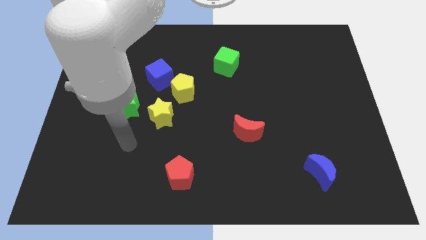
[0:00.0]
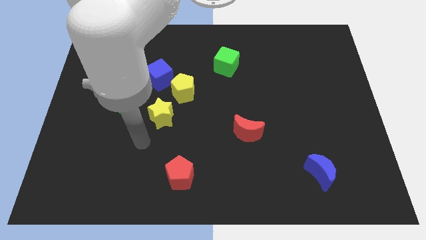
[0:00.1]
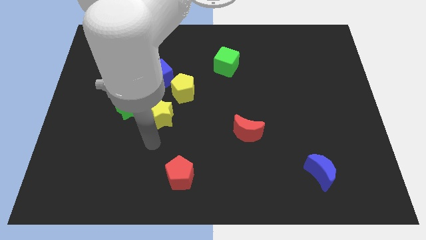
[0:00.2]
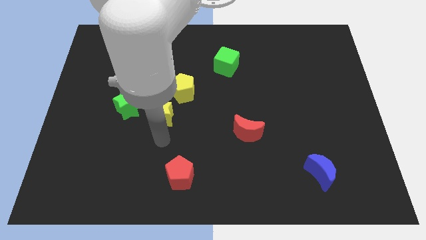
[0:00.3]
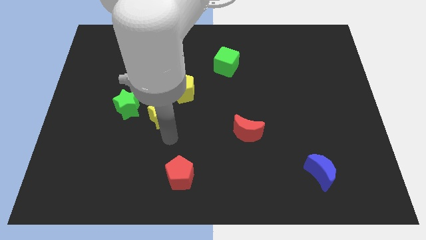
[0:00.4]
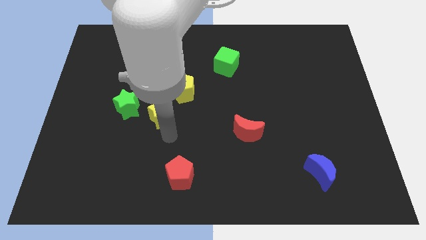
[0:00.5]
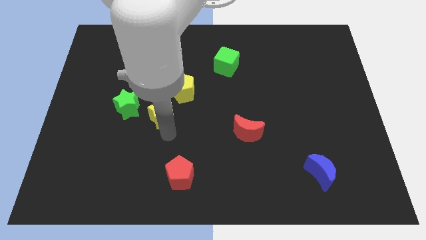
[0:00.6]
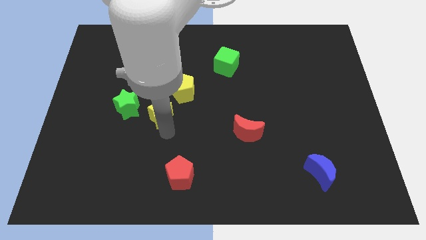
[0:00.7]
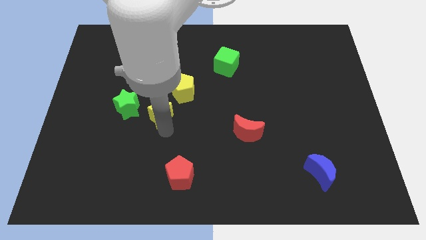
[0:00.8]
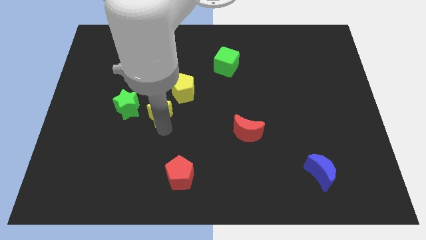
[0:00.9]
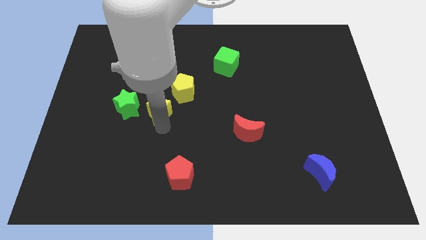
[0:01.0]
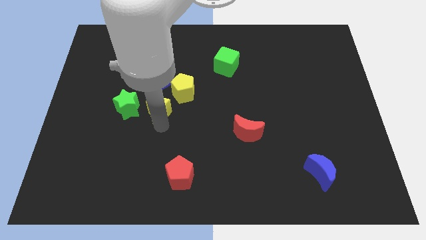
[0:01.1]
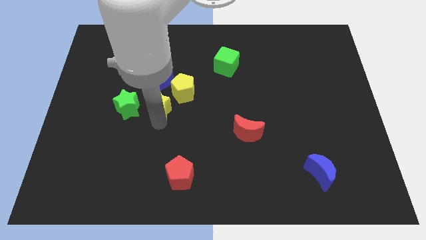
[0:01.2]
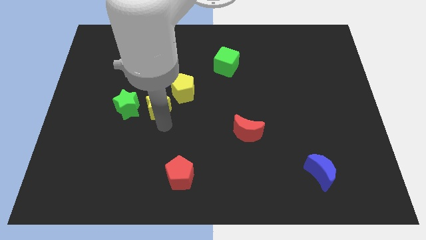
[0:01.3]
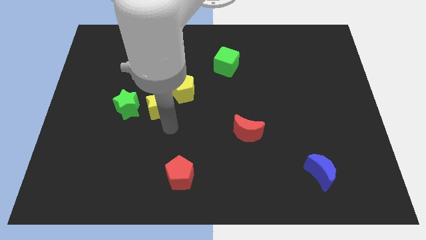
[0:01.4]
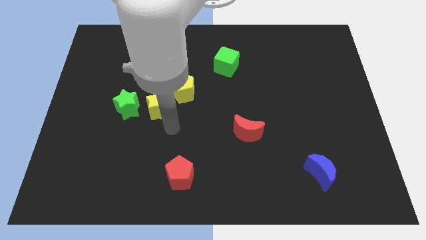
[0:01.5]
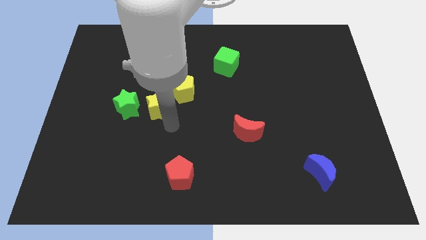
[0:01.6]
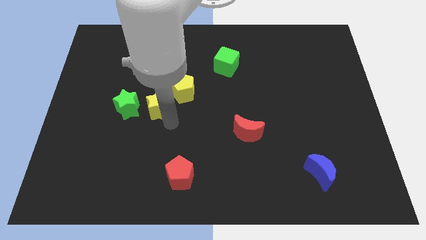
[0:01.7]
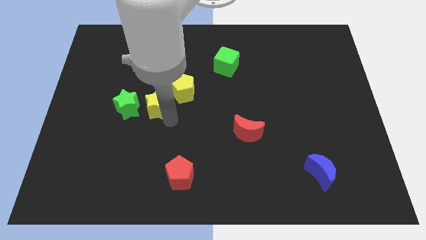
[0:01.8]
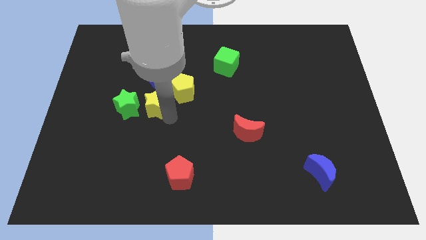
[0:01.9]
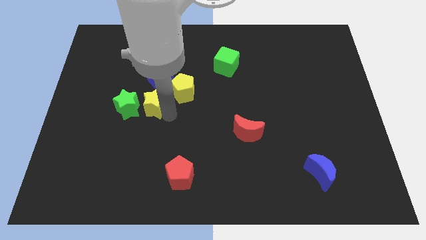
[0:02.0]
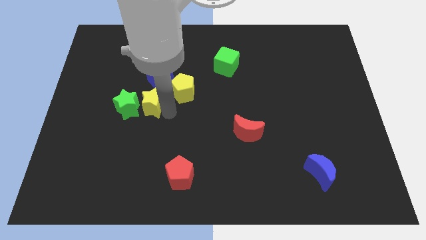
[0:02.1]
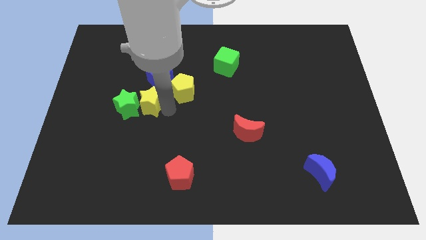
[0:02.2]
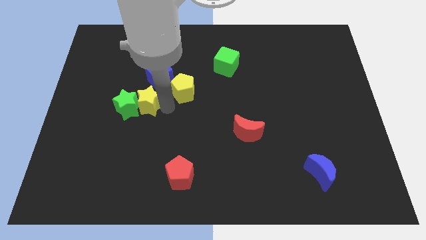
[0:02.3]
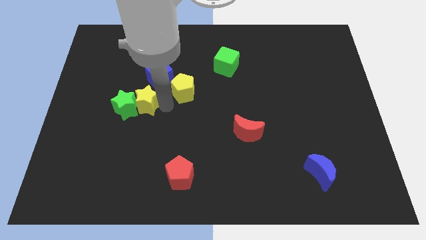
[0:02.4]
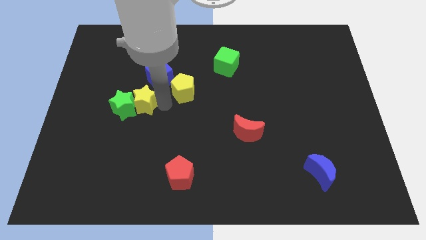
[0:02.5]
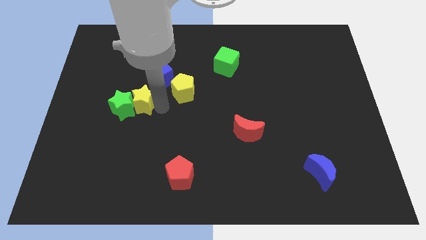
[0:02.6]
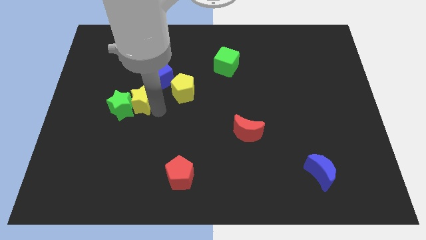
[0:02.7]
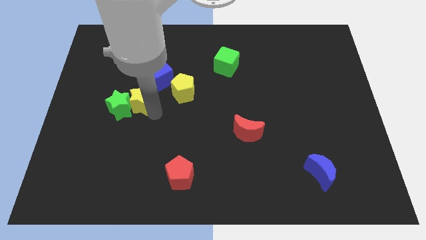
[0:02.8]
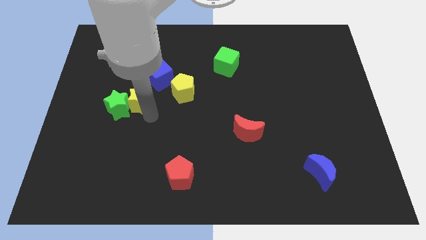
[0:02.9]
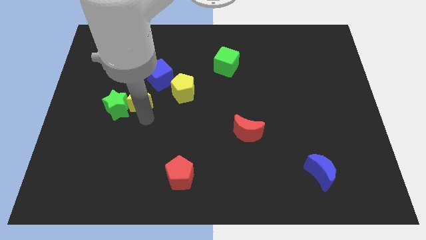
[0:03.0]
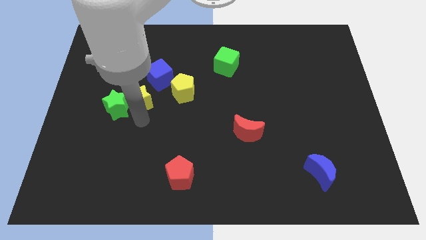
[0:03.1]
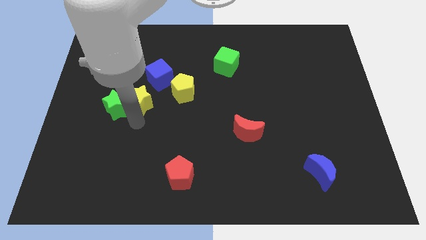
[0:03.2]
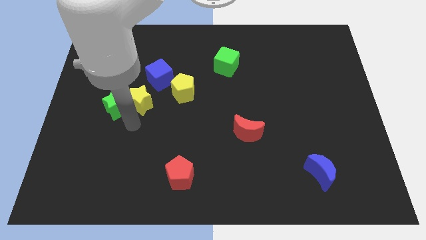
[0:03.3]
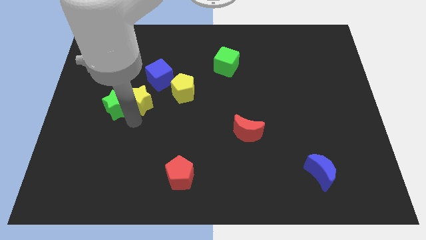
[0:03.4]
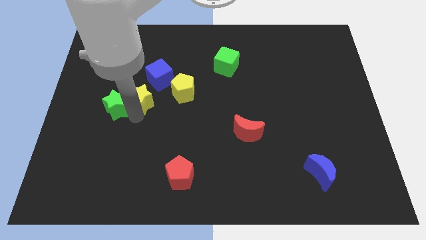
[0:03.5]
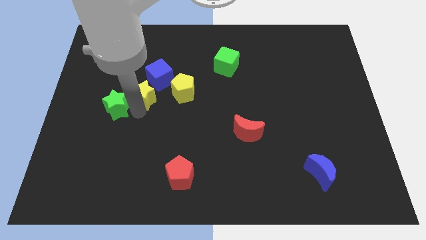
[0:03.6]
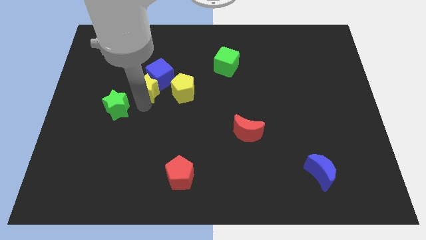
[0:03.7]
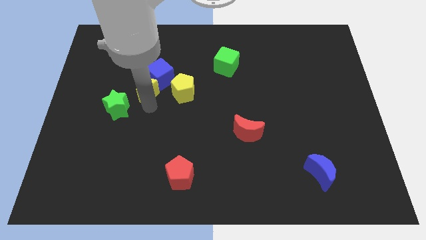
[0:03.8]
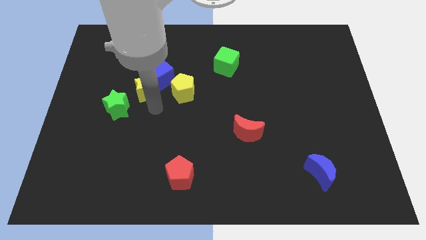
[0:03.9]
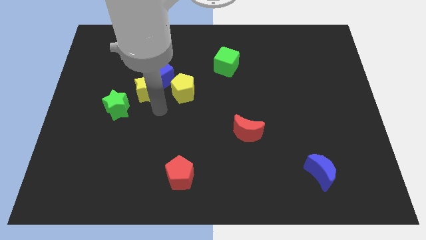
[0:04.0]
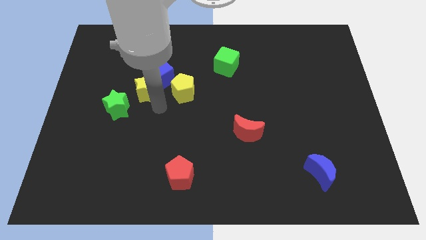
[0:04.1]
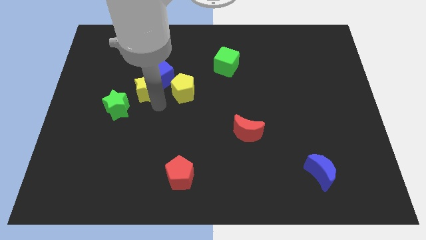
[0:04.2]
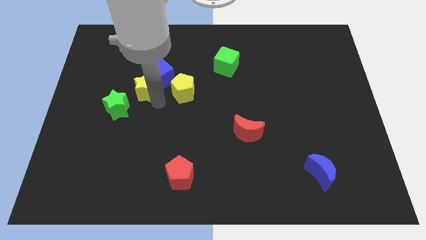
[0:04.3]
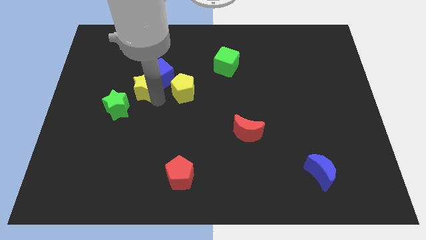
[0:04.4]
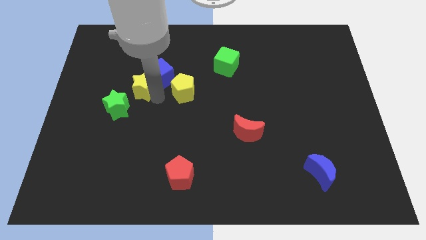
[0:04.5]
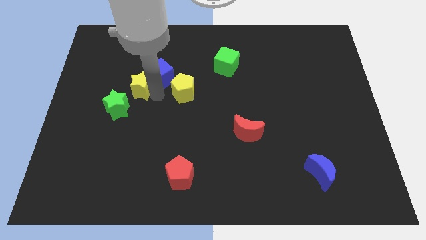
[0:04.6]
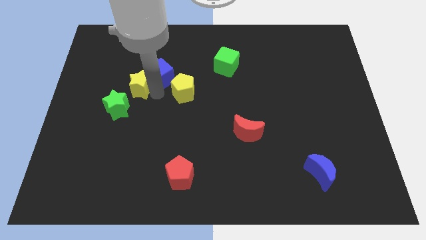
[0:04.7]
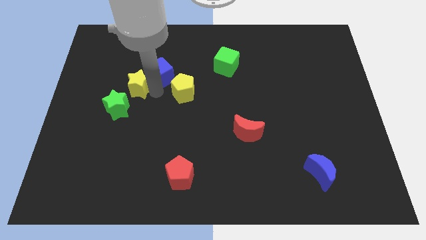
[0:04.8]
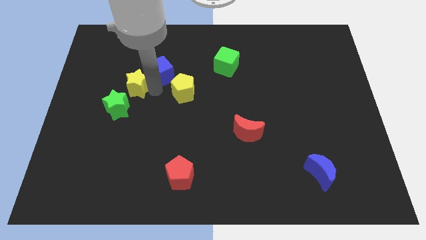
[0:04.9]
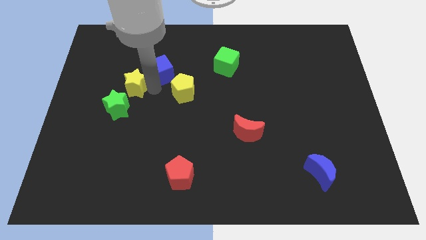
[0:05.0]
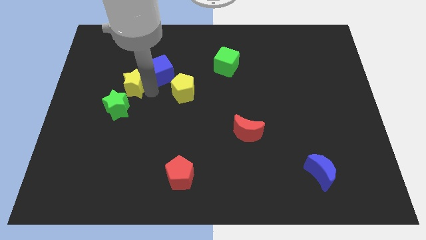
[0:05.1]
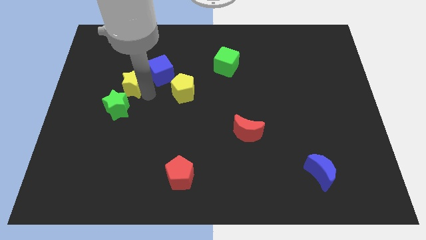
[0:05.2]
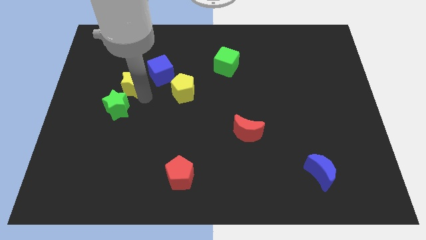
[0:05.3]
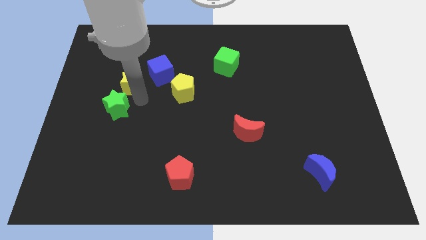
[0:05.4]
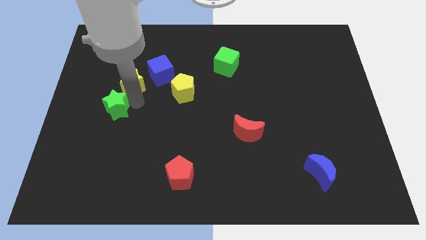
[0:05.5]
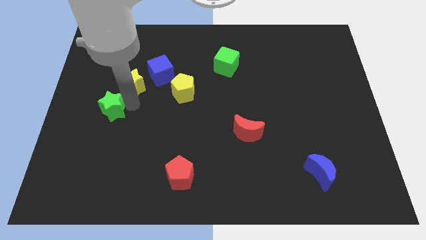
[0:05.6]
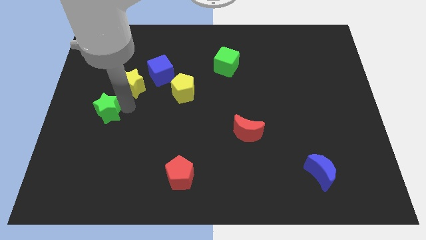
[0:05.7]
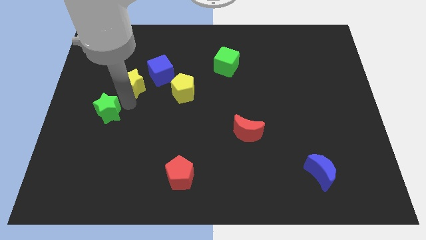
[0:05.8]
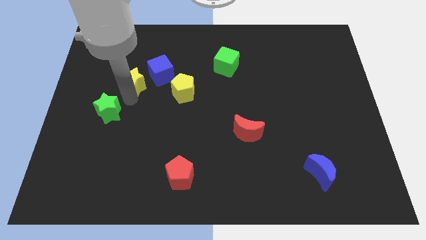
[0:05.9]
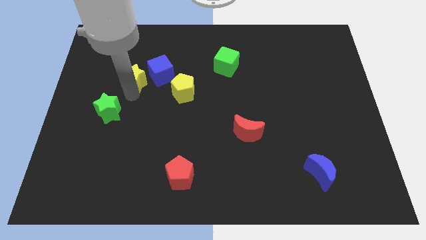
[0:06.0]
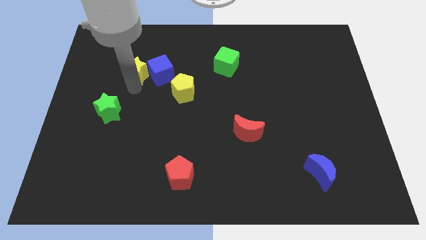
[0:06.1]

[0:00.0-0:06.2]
push the yellow star to the top left of the blue cube

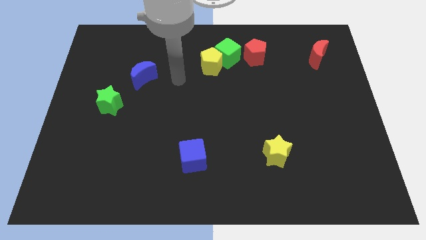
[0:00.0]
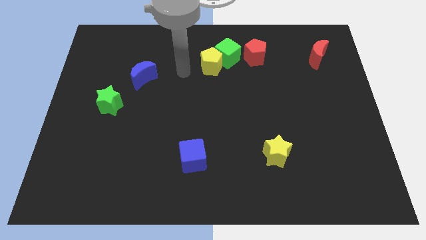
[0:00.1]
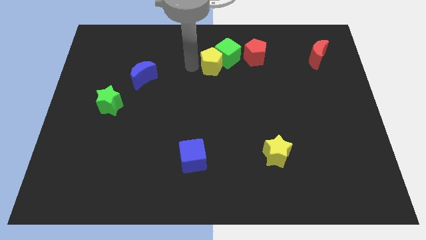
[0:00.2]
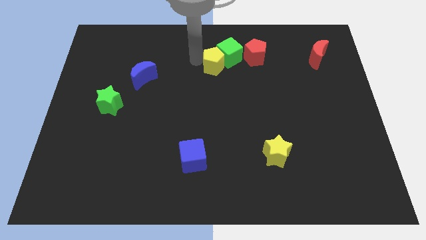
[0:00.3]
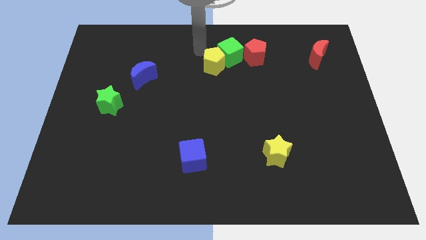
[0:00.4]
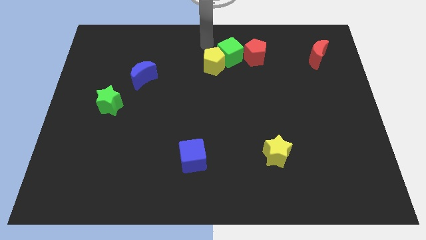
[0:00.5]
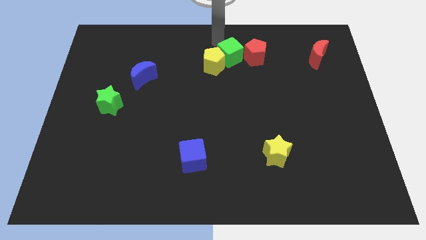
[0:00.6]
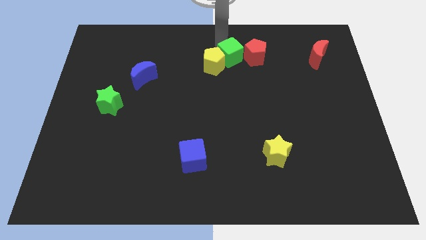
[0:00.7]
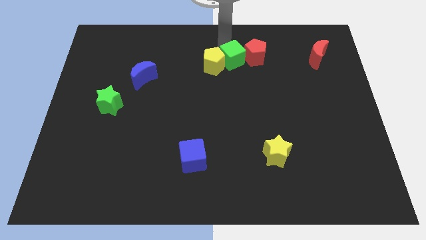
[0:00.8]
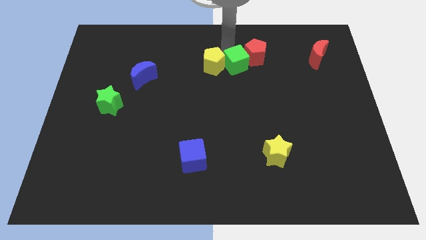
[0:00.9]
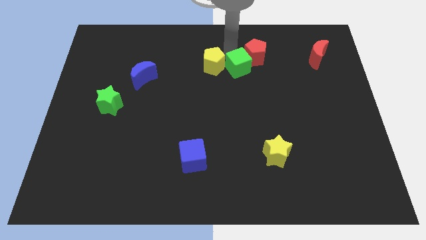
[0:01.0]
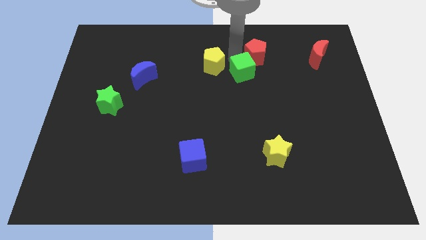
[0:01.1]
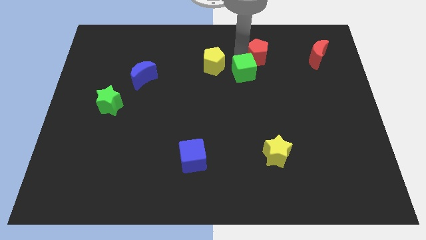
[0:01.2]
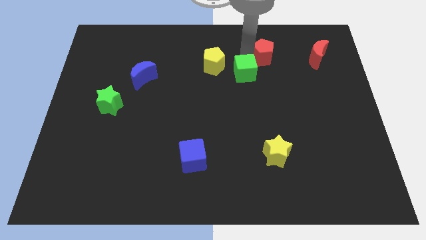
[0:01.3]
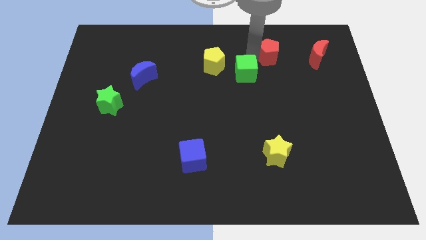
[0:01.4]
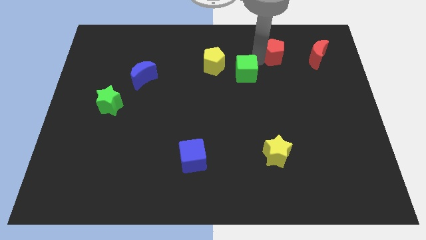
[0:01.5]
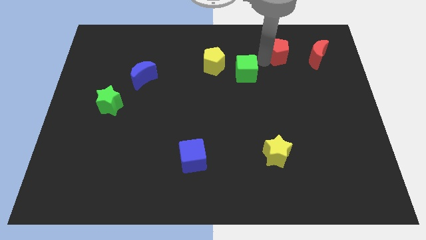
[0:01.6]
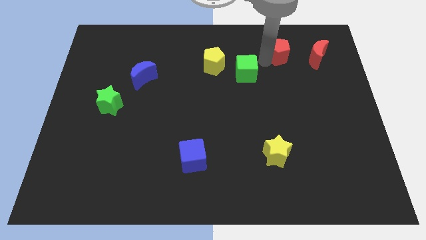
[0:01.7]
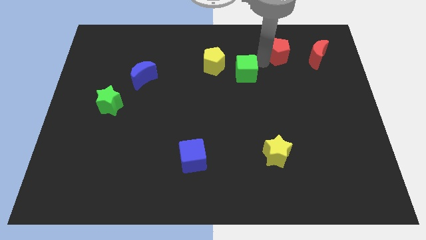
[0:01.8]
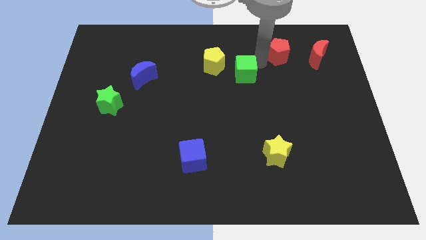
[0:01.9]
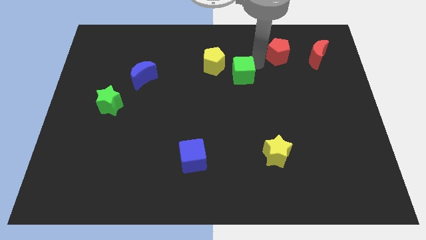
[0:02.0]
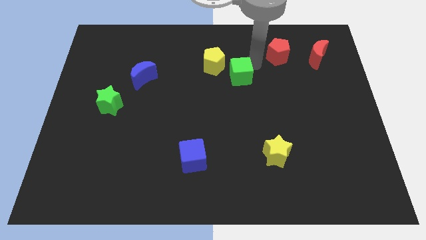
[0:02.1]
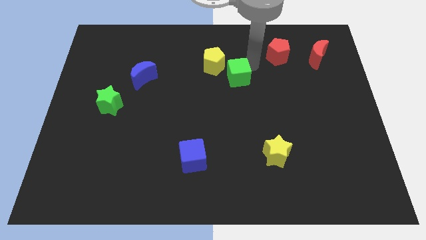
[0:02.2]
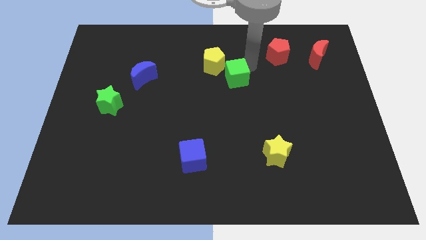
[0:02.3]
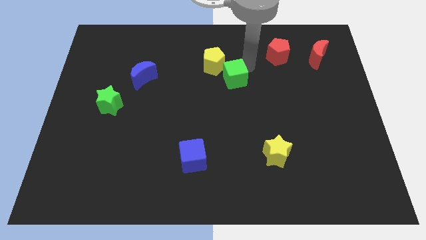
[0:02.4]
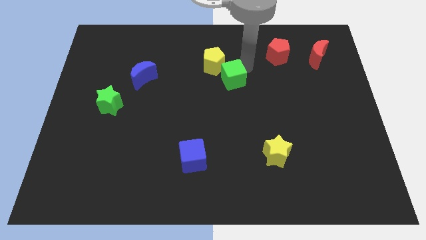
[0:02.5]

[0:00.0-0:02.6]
slide the green cube to the bottom of the yellow pentagon
